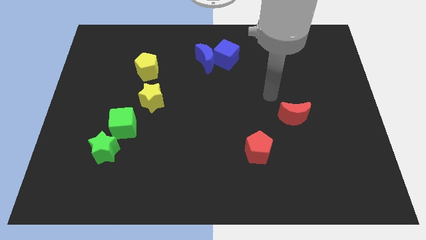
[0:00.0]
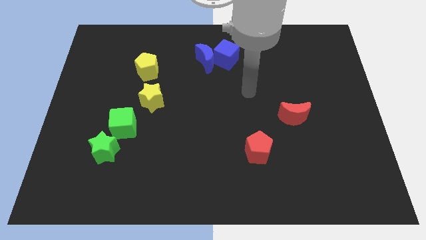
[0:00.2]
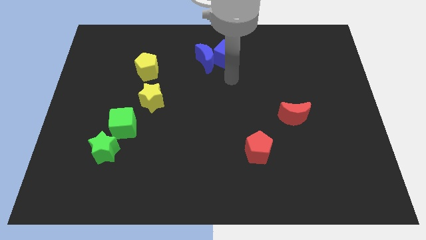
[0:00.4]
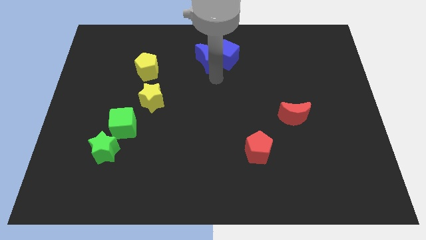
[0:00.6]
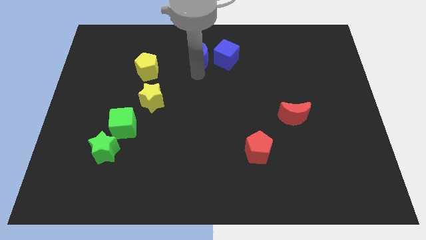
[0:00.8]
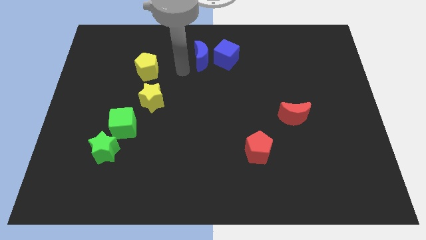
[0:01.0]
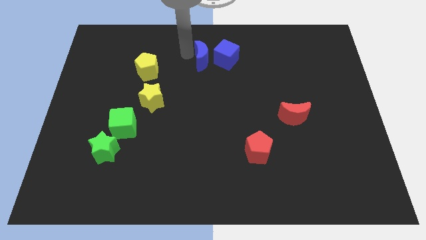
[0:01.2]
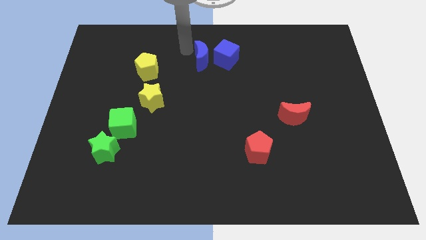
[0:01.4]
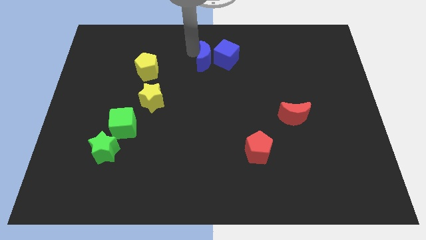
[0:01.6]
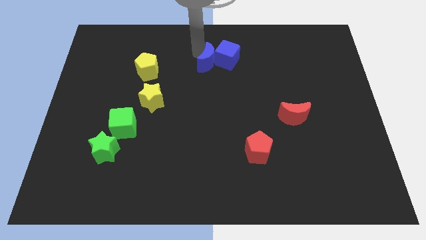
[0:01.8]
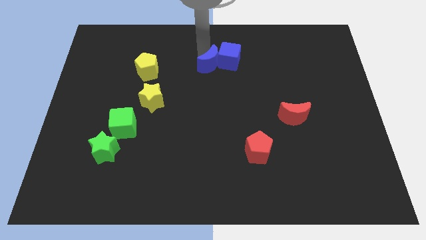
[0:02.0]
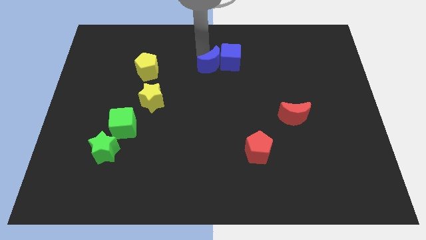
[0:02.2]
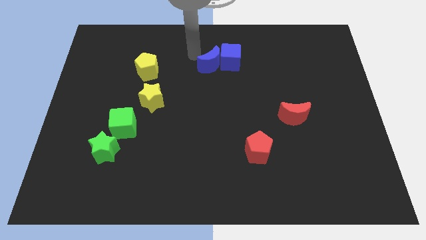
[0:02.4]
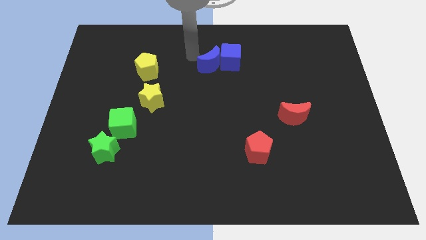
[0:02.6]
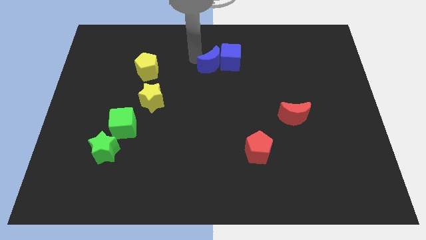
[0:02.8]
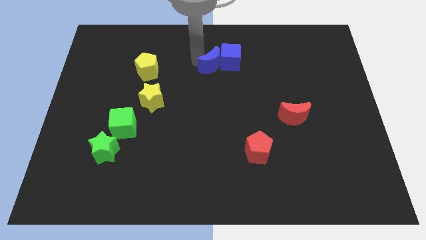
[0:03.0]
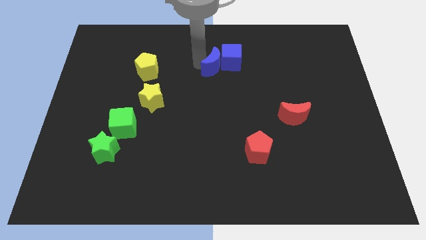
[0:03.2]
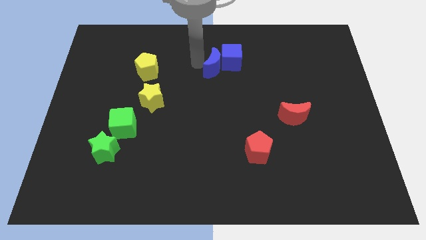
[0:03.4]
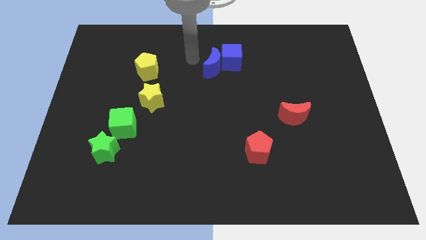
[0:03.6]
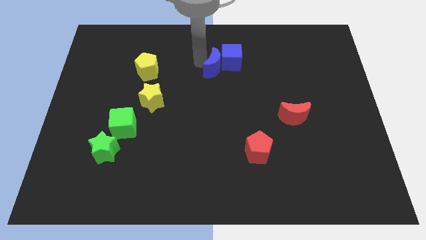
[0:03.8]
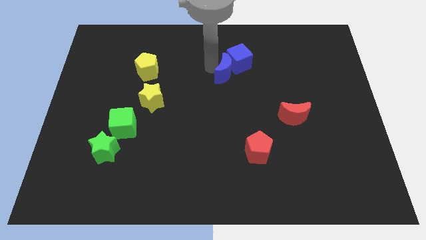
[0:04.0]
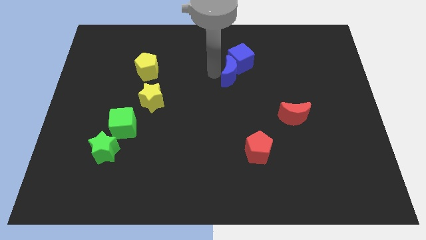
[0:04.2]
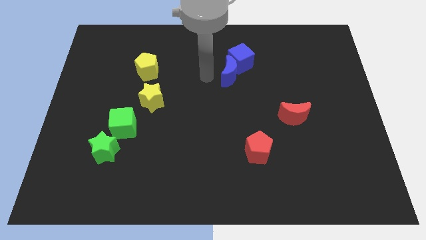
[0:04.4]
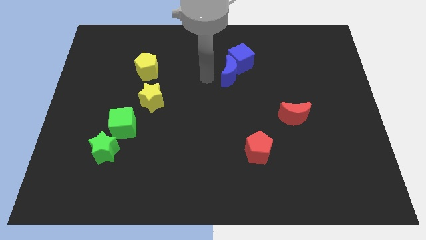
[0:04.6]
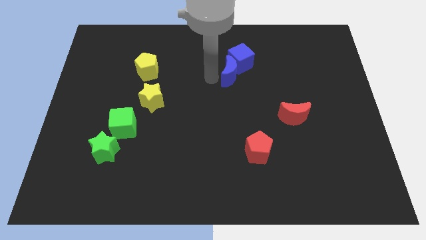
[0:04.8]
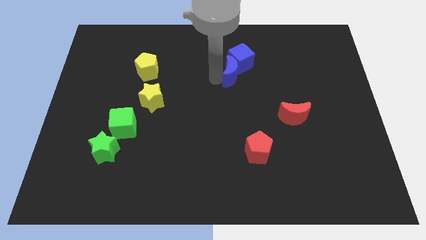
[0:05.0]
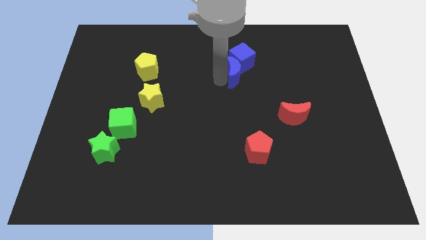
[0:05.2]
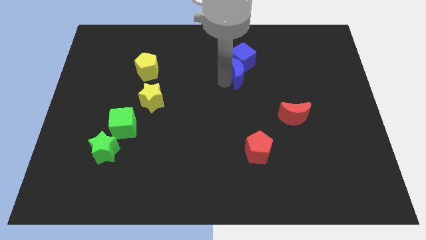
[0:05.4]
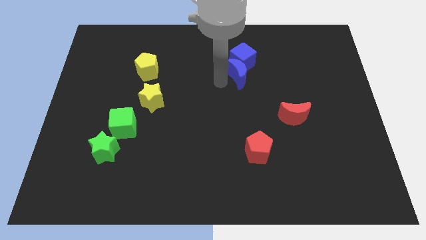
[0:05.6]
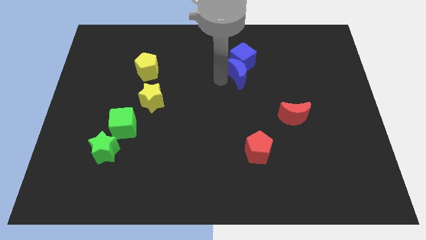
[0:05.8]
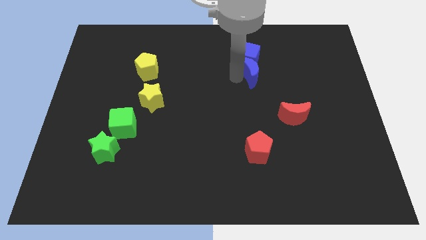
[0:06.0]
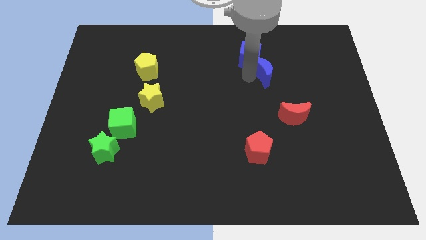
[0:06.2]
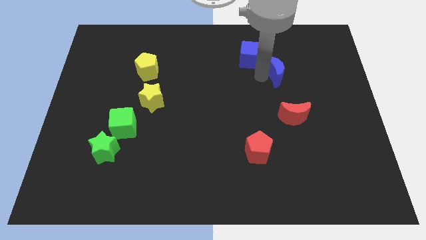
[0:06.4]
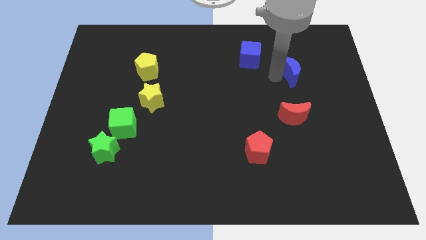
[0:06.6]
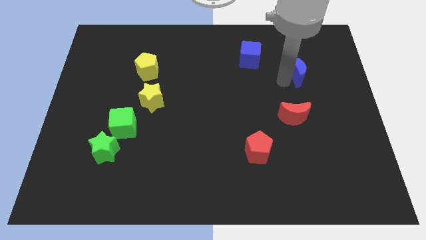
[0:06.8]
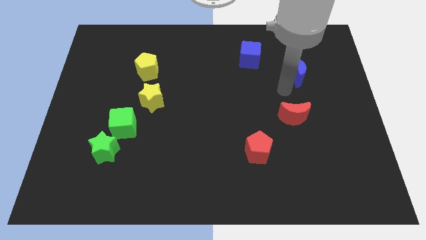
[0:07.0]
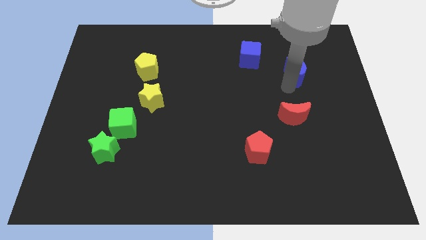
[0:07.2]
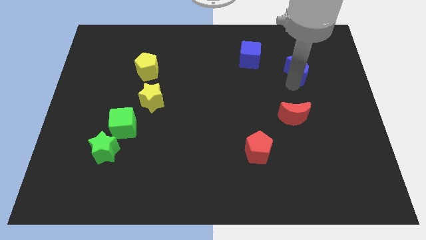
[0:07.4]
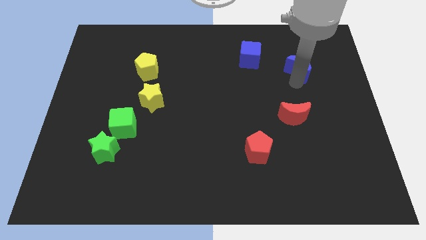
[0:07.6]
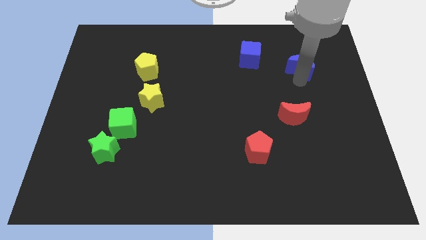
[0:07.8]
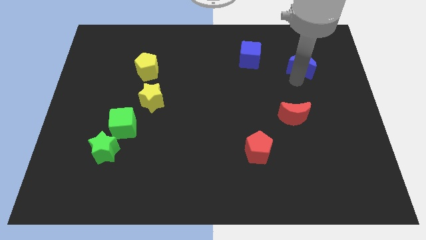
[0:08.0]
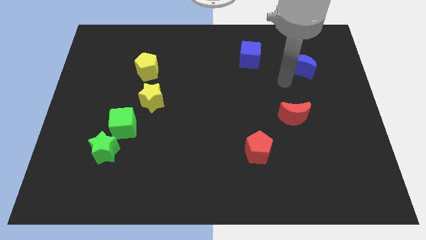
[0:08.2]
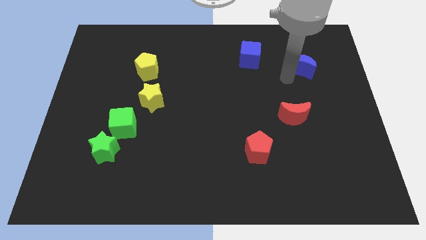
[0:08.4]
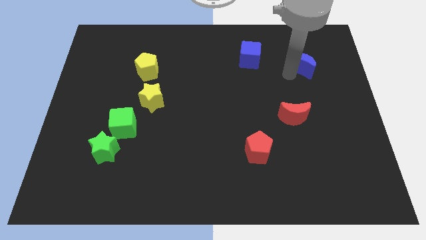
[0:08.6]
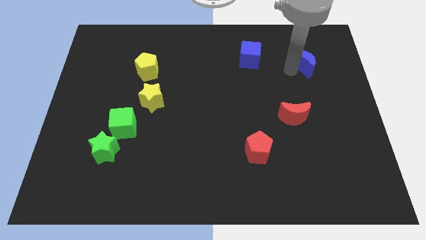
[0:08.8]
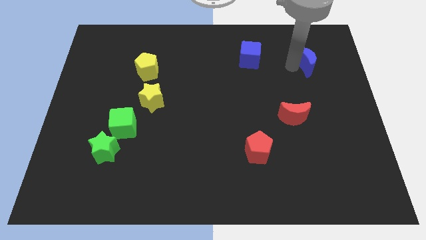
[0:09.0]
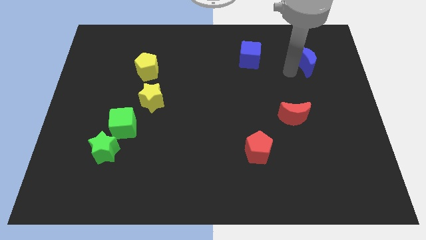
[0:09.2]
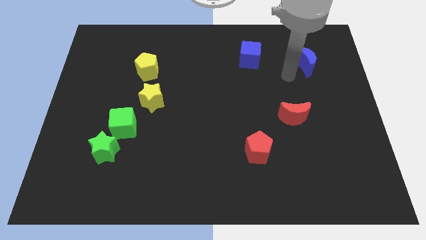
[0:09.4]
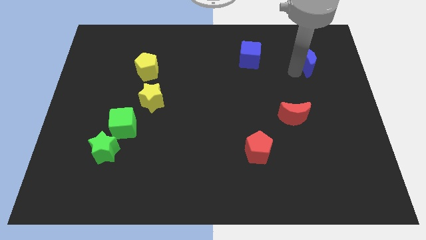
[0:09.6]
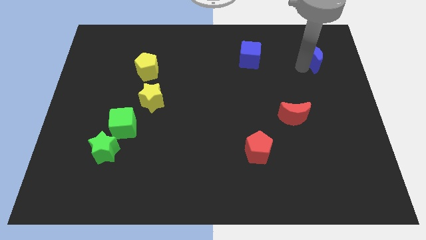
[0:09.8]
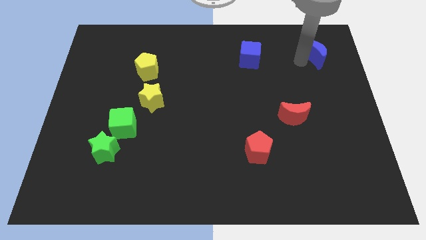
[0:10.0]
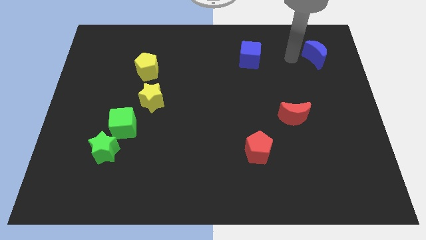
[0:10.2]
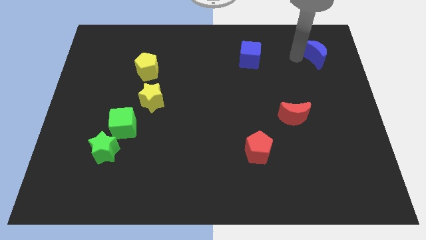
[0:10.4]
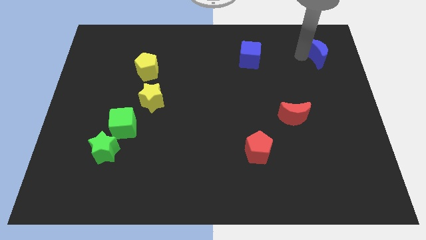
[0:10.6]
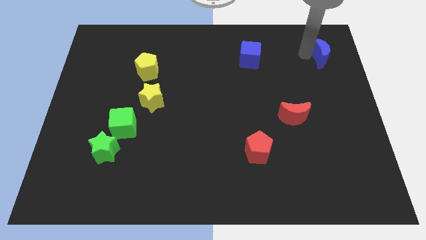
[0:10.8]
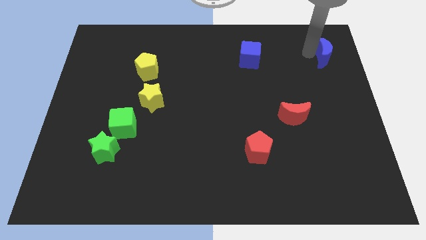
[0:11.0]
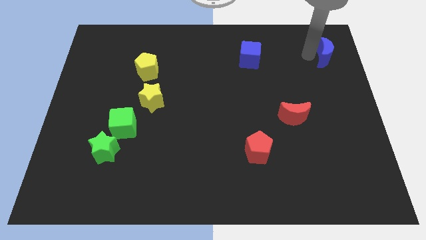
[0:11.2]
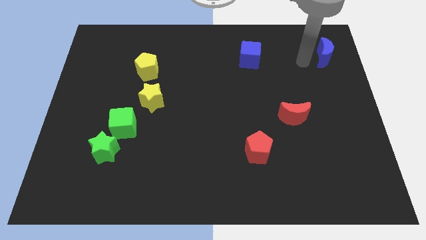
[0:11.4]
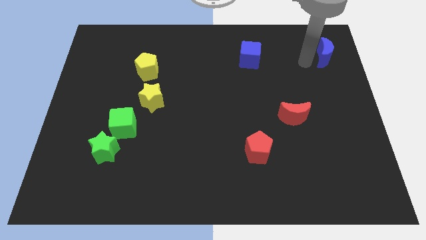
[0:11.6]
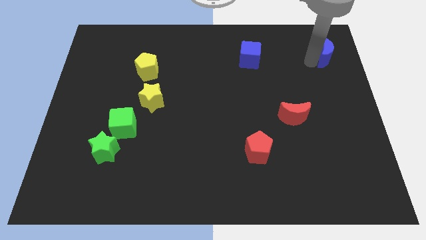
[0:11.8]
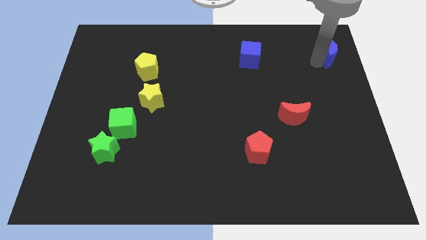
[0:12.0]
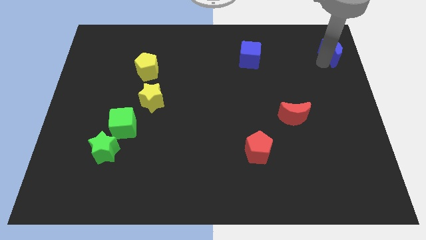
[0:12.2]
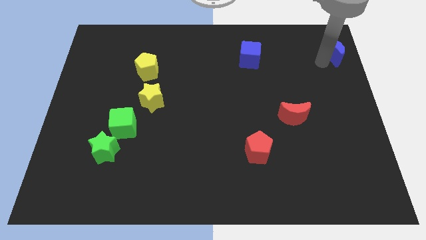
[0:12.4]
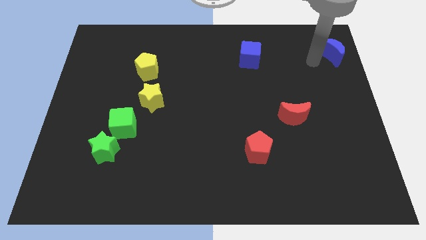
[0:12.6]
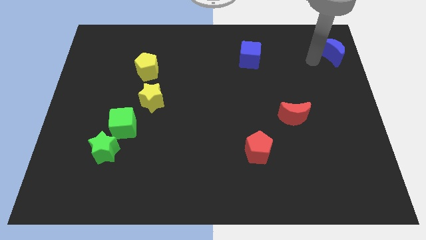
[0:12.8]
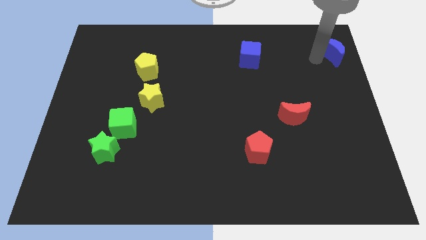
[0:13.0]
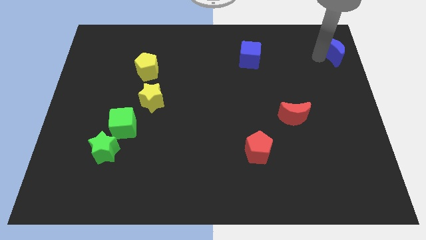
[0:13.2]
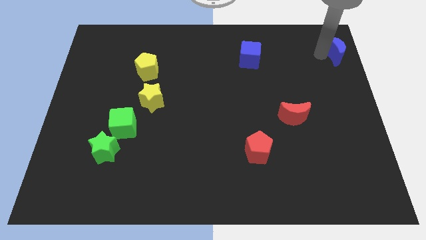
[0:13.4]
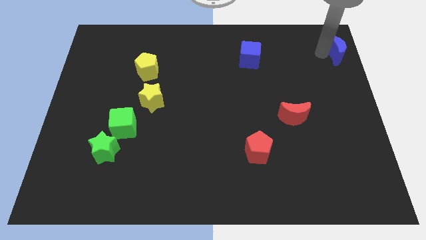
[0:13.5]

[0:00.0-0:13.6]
slide the blue moon to the top right
